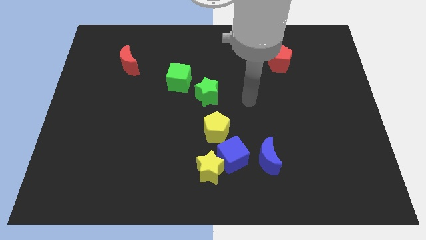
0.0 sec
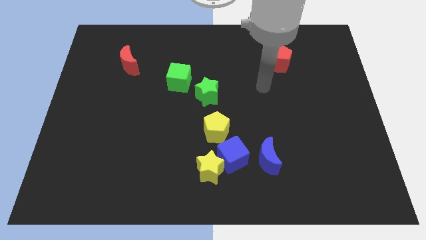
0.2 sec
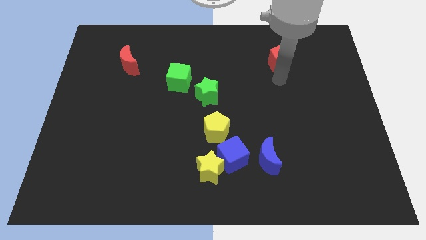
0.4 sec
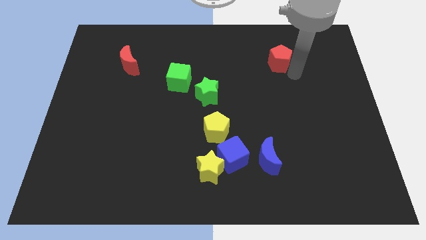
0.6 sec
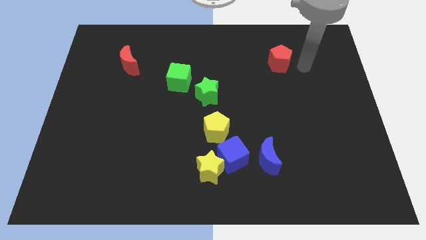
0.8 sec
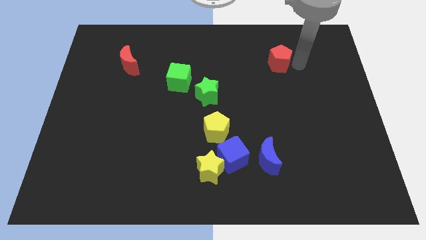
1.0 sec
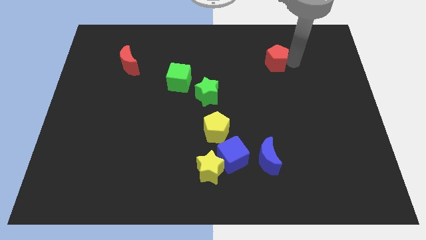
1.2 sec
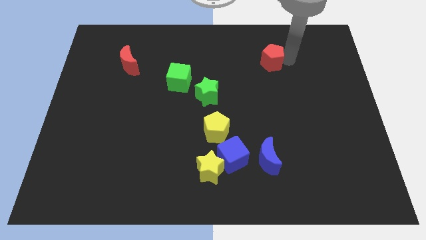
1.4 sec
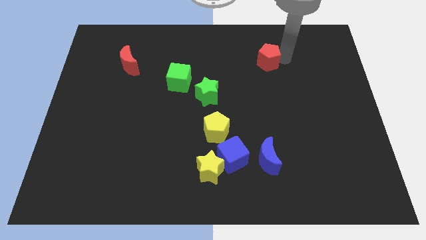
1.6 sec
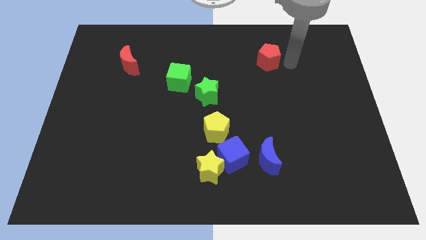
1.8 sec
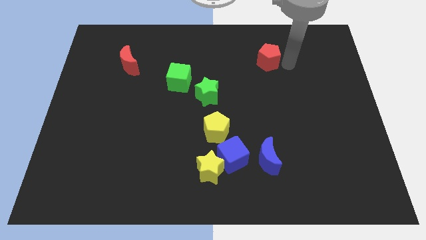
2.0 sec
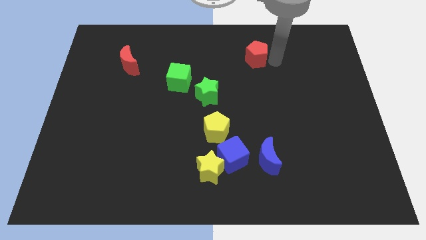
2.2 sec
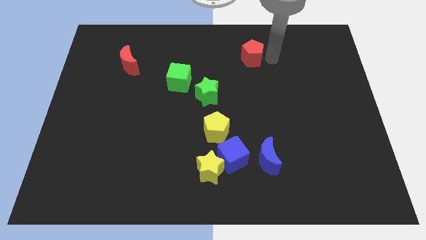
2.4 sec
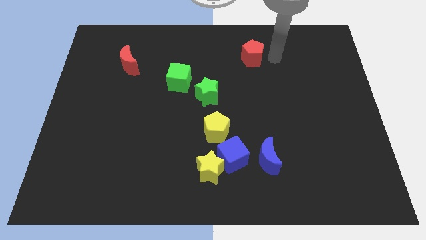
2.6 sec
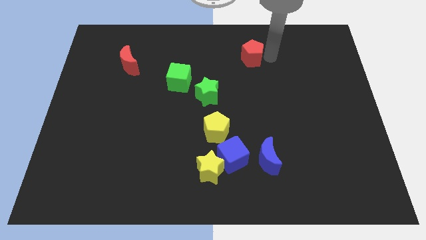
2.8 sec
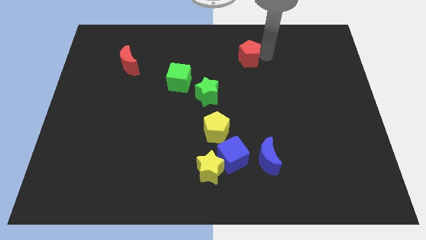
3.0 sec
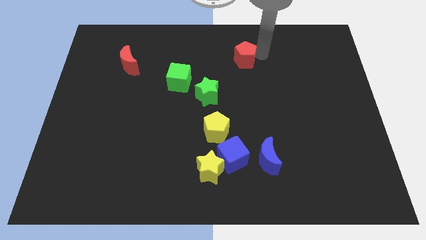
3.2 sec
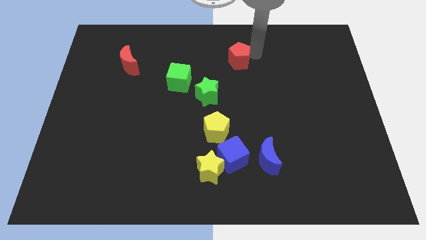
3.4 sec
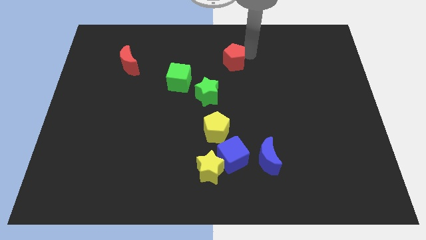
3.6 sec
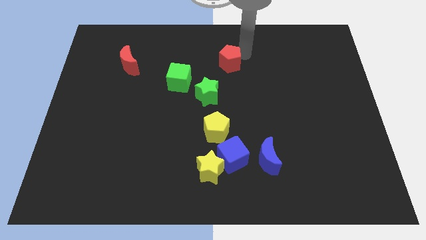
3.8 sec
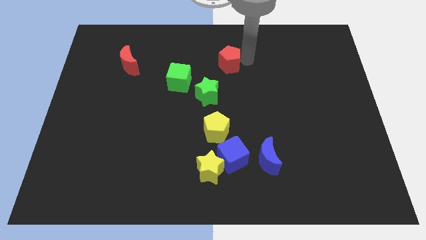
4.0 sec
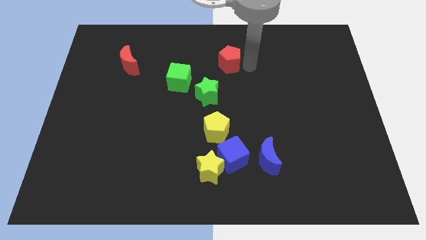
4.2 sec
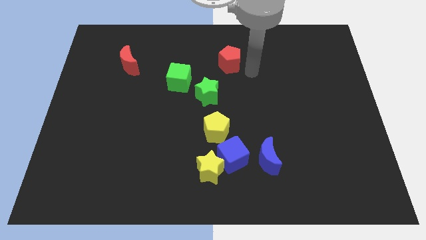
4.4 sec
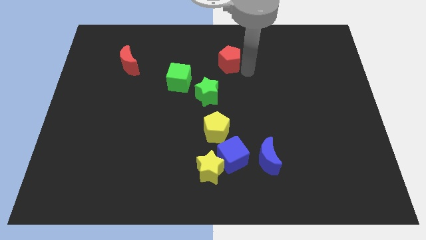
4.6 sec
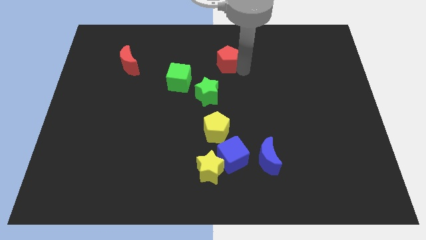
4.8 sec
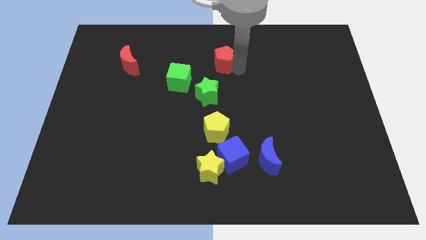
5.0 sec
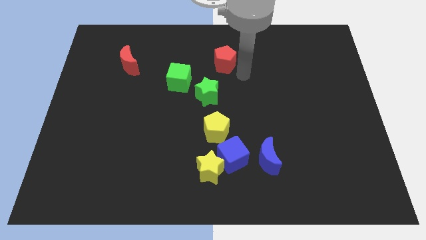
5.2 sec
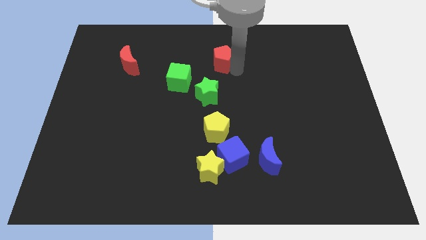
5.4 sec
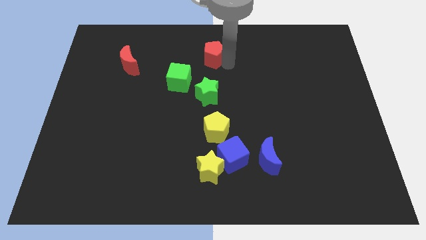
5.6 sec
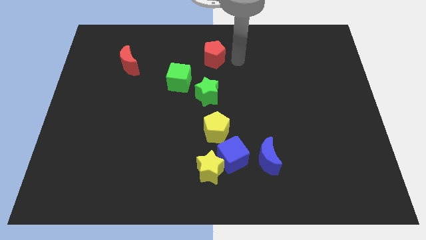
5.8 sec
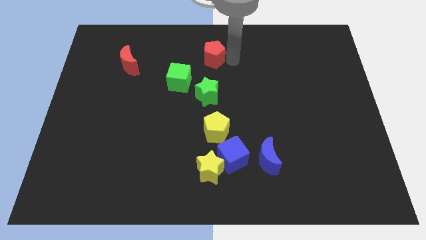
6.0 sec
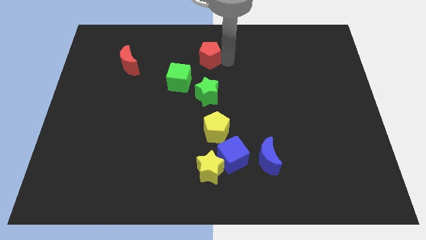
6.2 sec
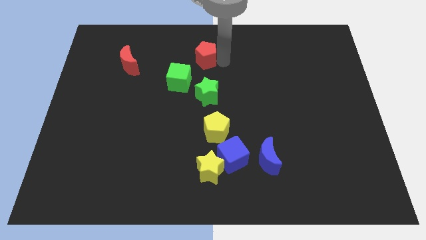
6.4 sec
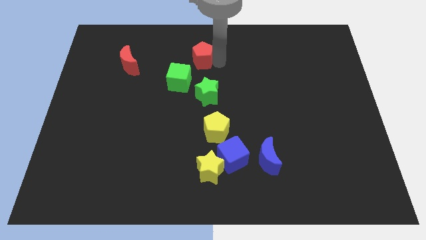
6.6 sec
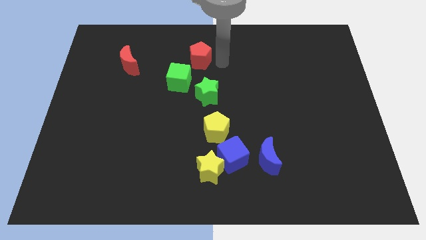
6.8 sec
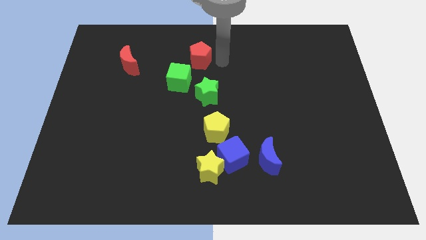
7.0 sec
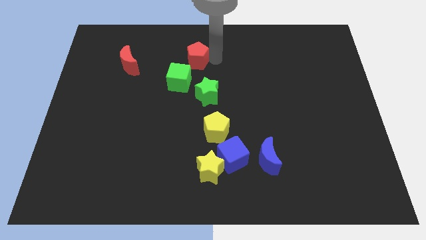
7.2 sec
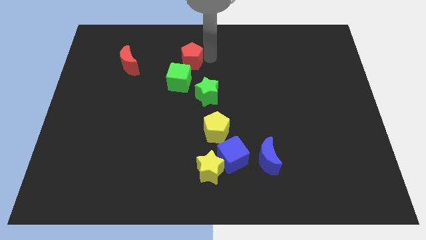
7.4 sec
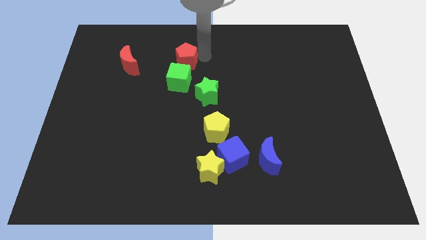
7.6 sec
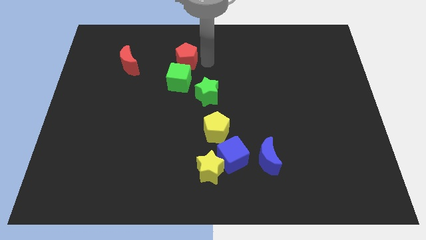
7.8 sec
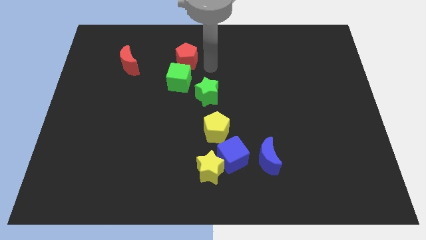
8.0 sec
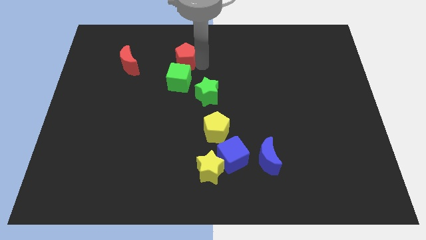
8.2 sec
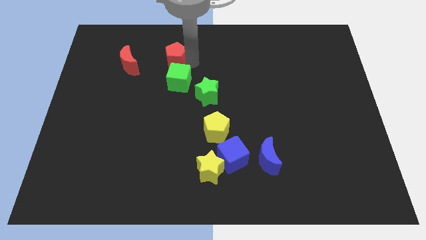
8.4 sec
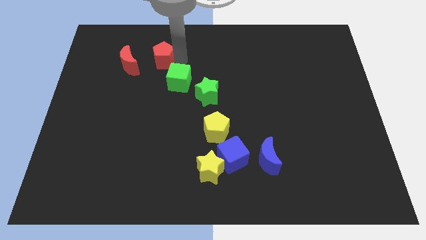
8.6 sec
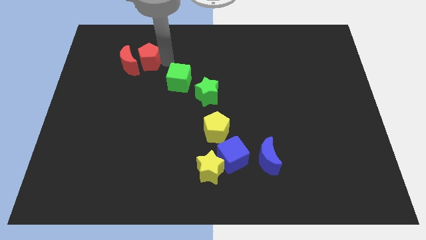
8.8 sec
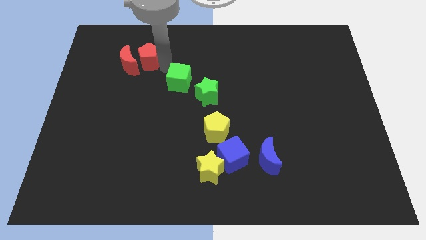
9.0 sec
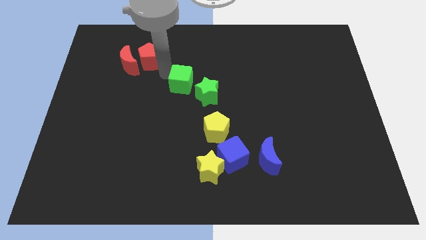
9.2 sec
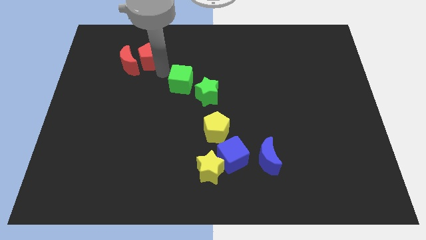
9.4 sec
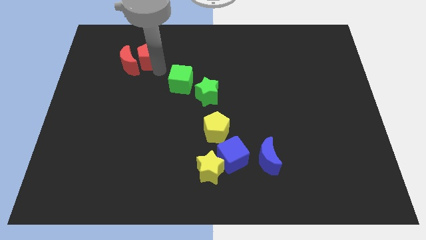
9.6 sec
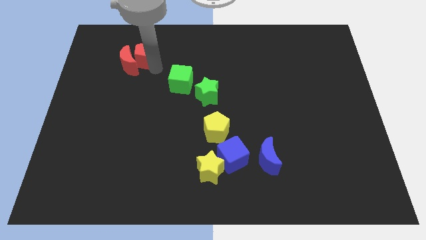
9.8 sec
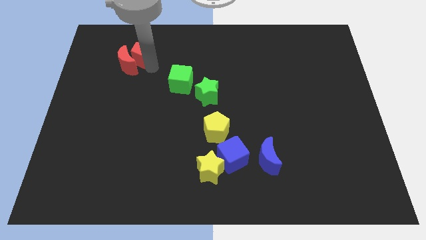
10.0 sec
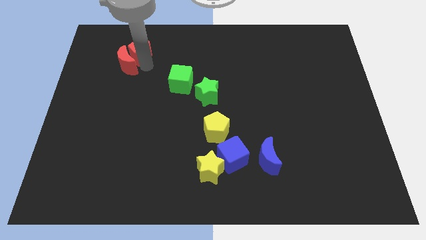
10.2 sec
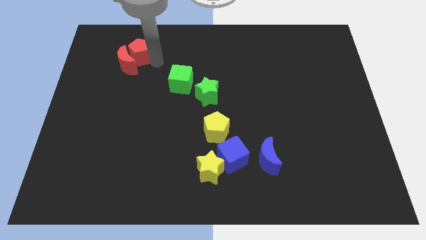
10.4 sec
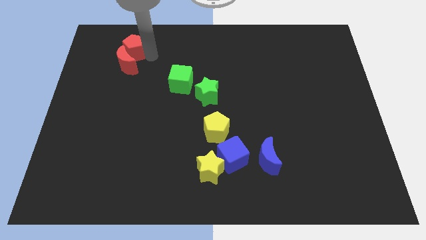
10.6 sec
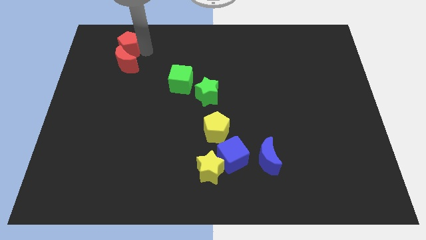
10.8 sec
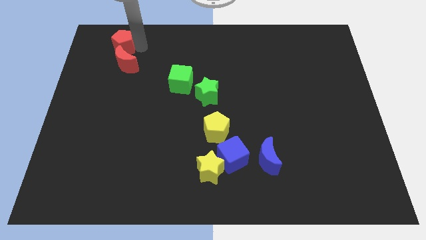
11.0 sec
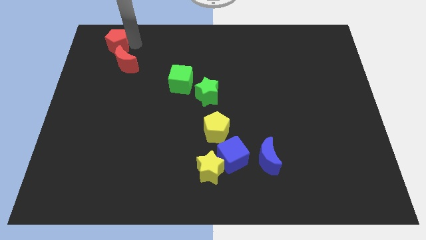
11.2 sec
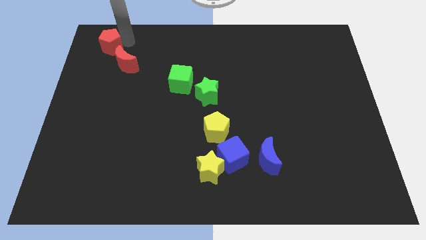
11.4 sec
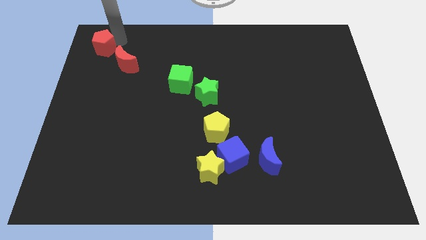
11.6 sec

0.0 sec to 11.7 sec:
slide the red pentagon to the top left corner

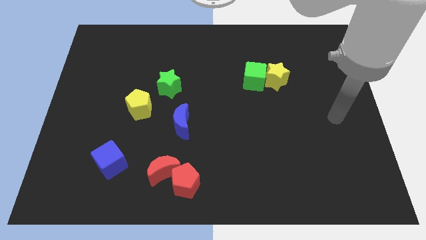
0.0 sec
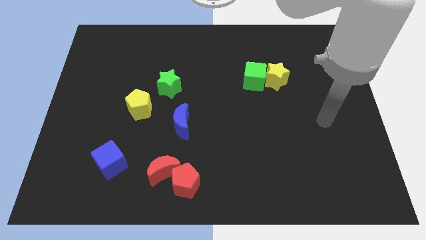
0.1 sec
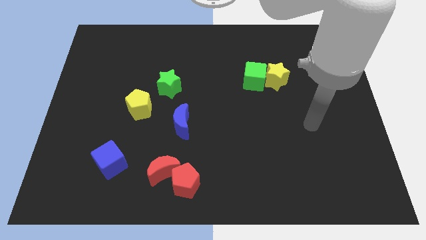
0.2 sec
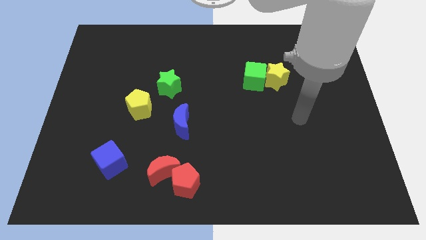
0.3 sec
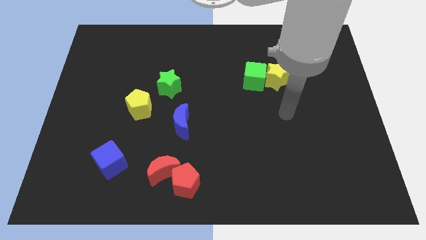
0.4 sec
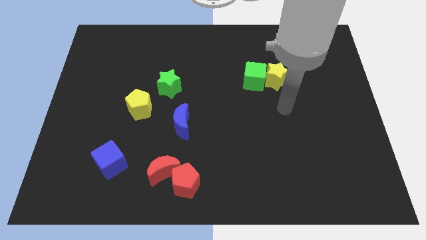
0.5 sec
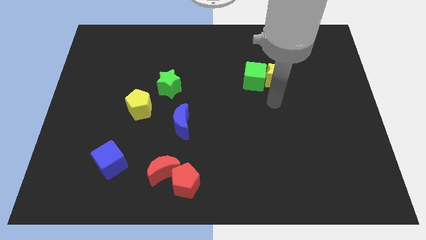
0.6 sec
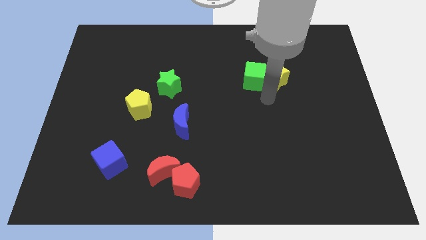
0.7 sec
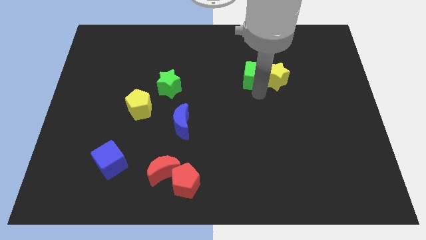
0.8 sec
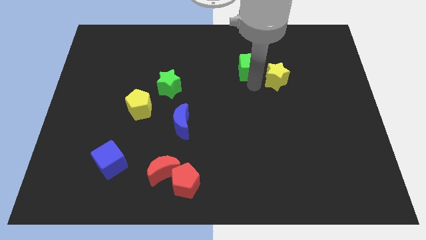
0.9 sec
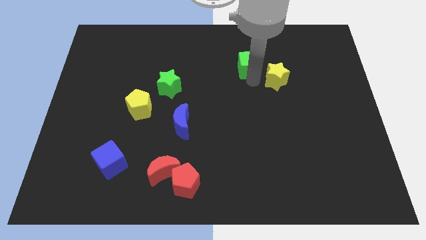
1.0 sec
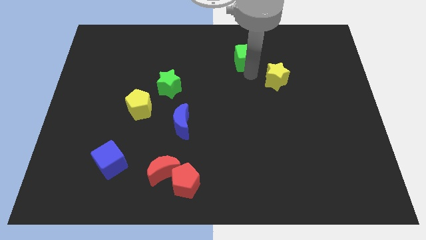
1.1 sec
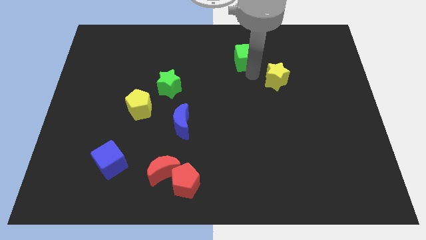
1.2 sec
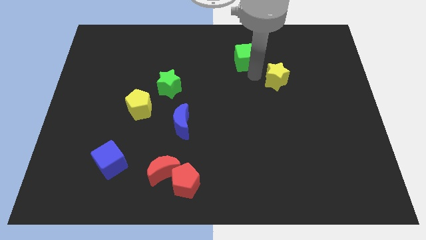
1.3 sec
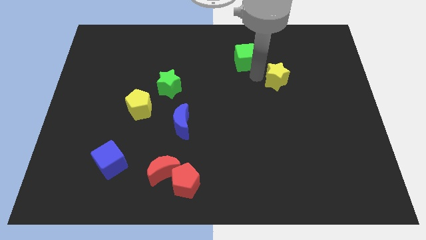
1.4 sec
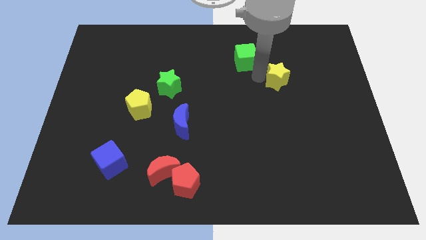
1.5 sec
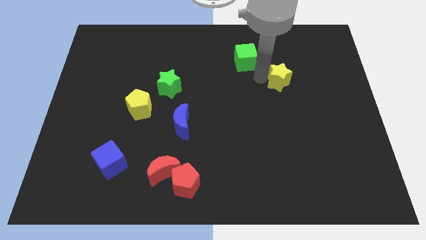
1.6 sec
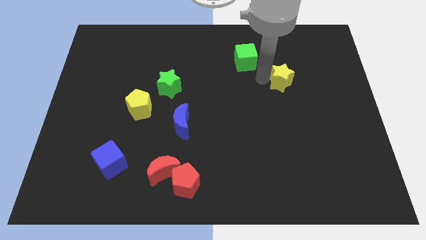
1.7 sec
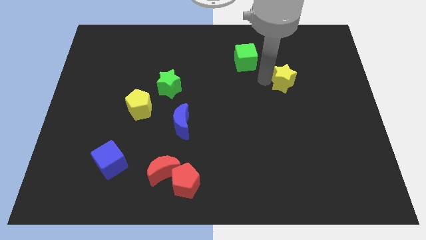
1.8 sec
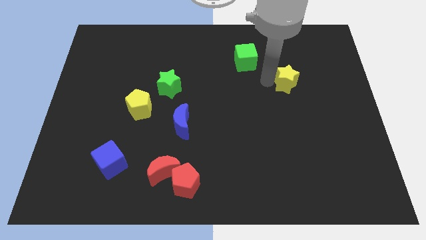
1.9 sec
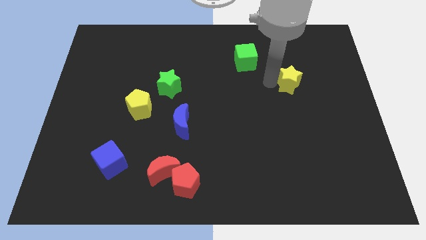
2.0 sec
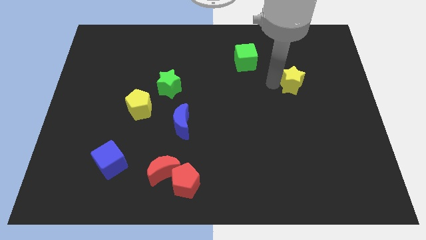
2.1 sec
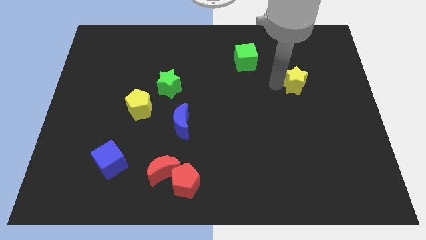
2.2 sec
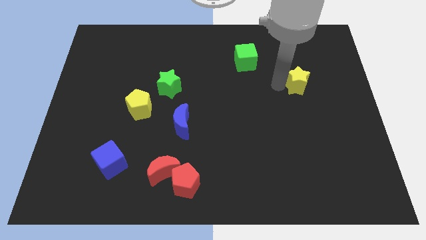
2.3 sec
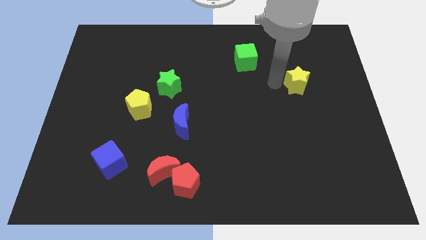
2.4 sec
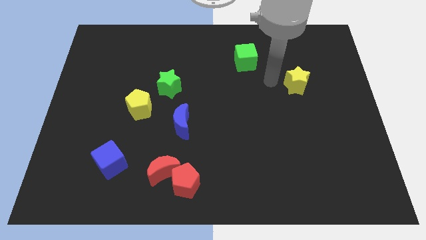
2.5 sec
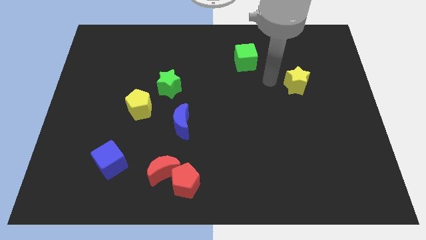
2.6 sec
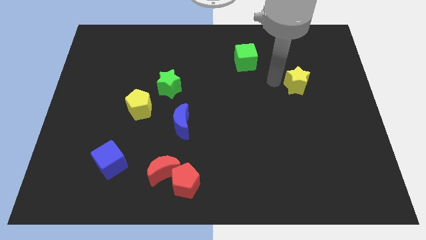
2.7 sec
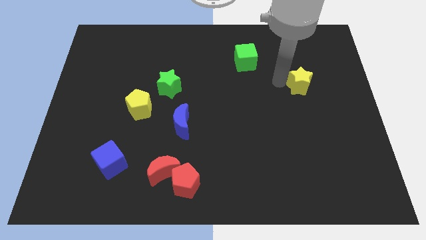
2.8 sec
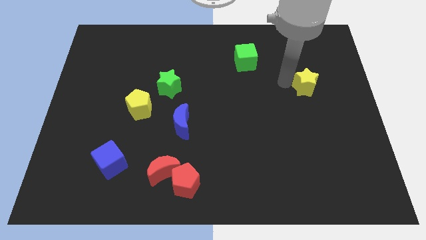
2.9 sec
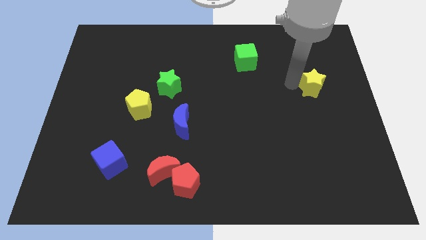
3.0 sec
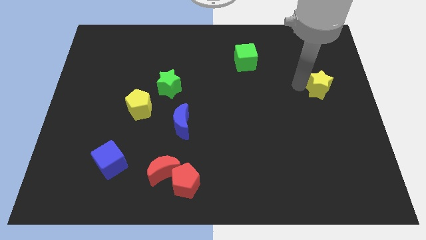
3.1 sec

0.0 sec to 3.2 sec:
move the yellow star to the right side of the board
